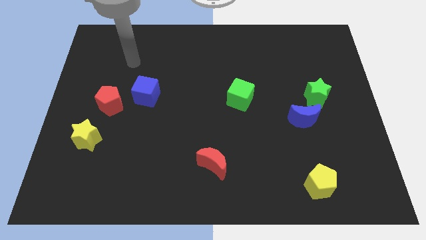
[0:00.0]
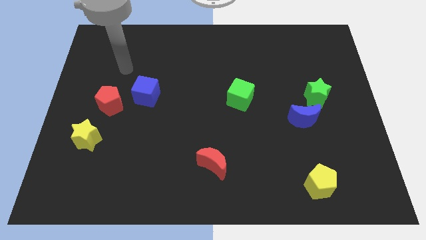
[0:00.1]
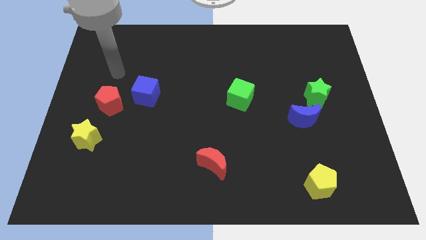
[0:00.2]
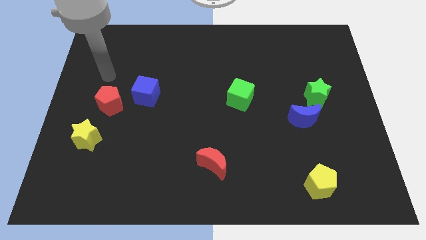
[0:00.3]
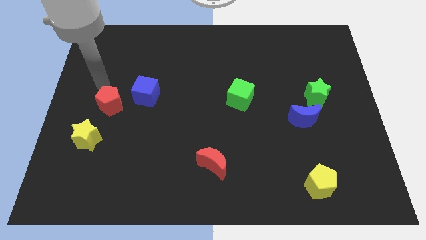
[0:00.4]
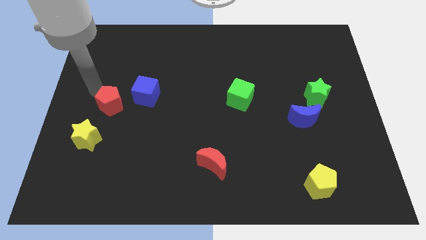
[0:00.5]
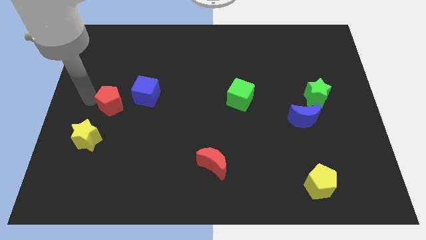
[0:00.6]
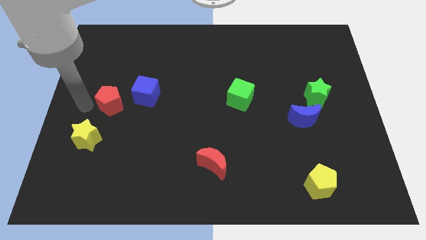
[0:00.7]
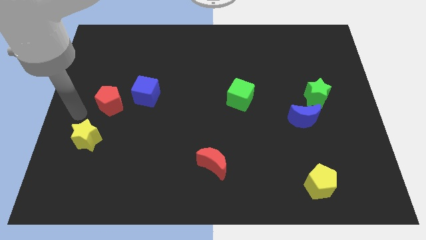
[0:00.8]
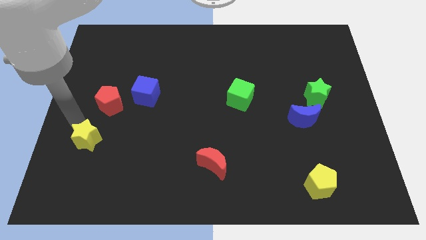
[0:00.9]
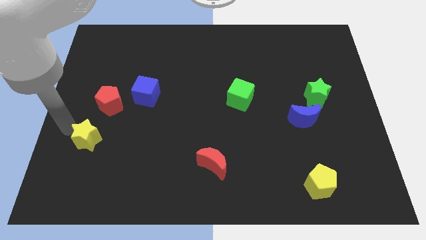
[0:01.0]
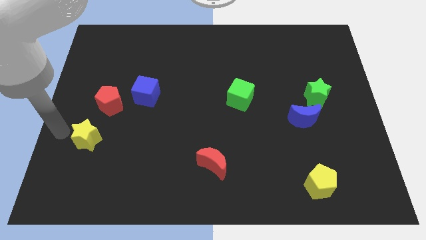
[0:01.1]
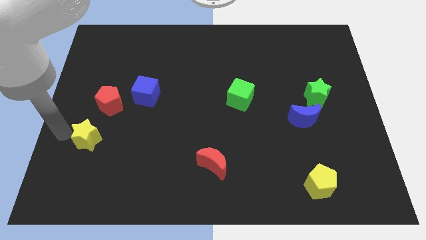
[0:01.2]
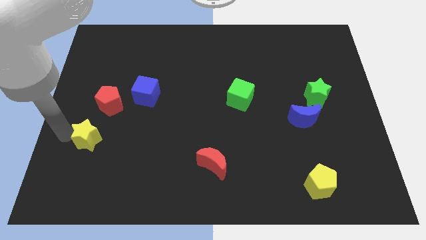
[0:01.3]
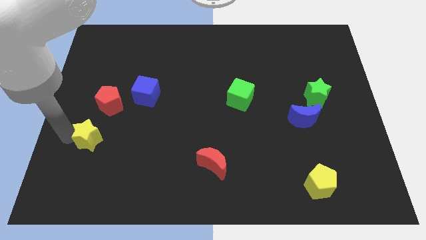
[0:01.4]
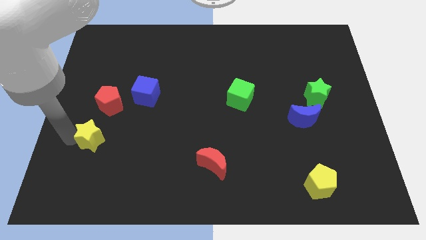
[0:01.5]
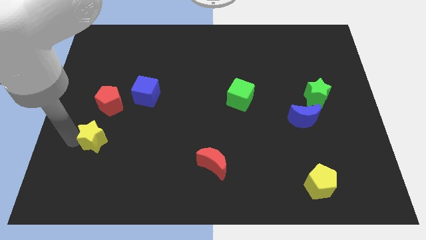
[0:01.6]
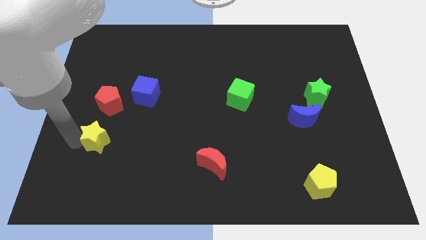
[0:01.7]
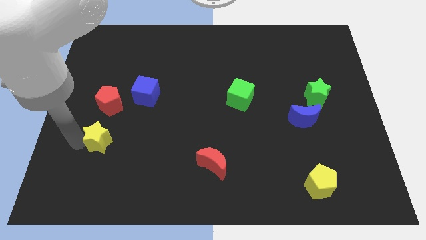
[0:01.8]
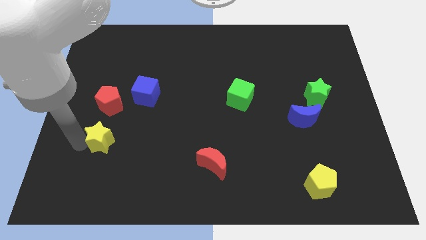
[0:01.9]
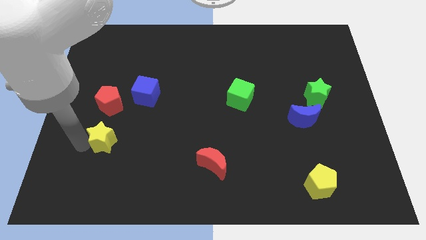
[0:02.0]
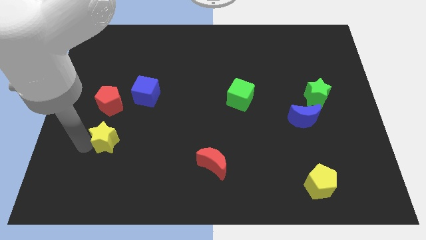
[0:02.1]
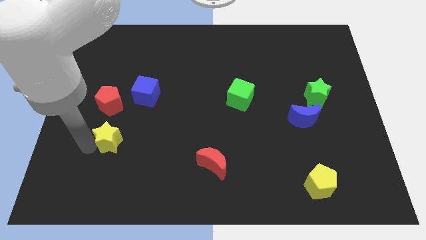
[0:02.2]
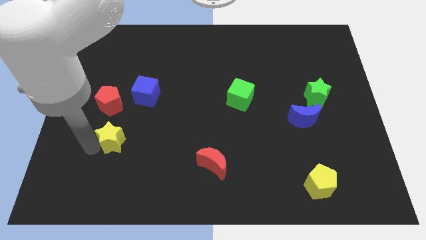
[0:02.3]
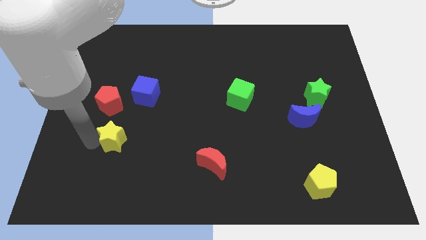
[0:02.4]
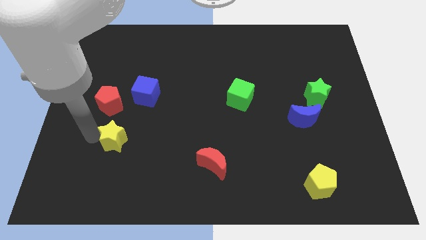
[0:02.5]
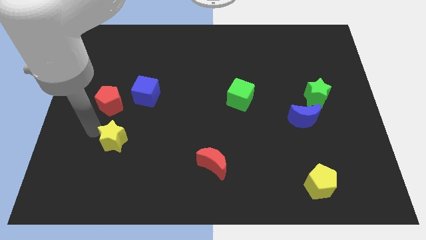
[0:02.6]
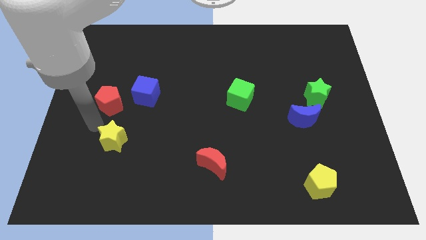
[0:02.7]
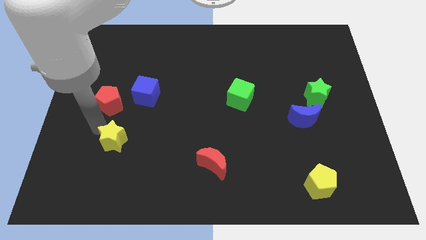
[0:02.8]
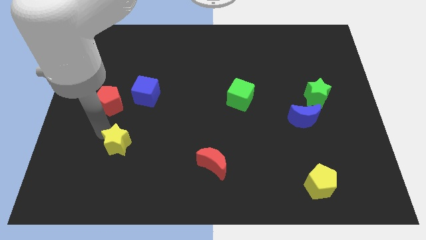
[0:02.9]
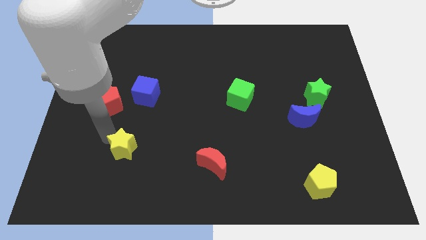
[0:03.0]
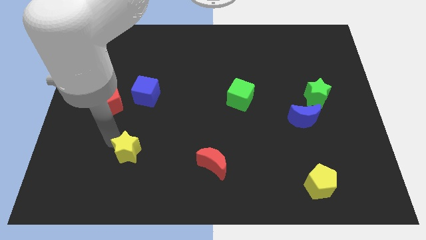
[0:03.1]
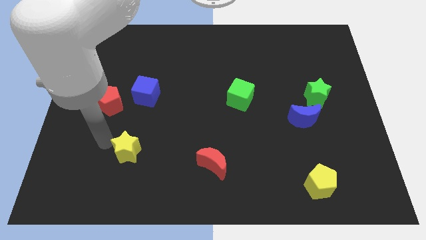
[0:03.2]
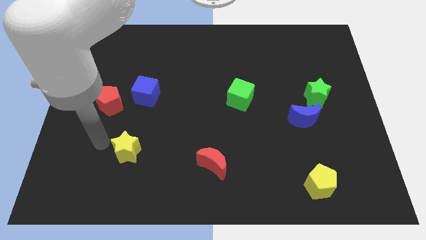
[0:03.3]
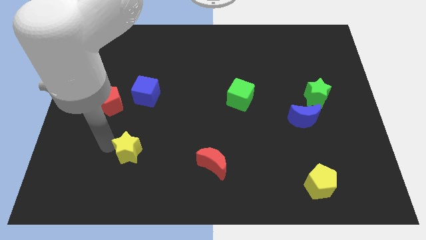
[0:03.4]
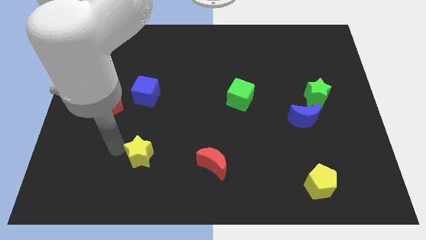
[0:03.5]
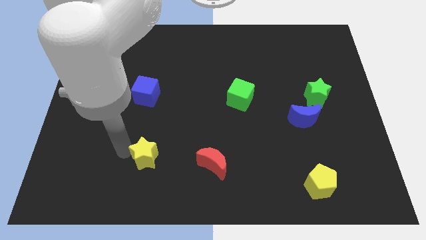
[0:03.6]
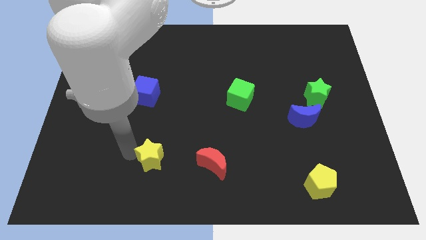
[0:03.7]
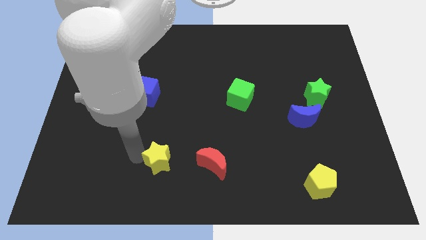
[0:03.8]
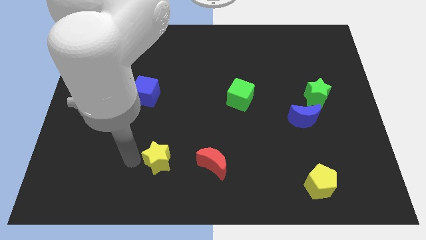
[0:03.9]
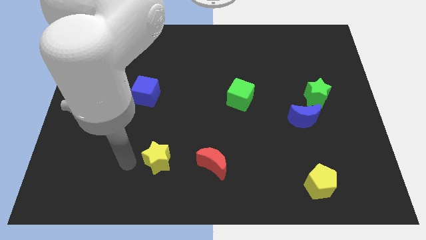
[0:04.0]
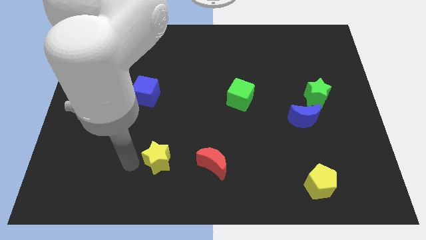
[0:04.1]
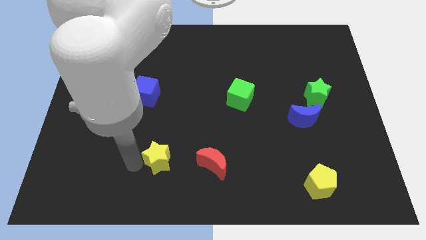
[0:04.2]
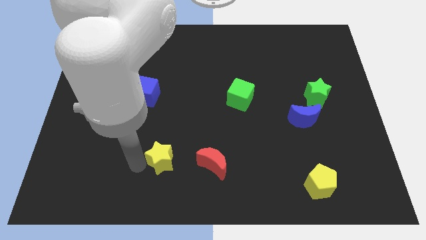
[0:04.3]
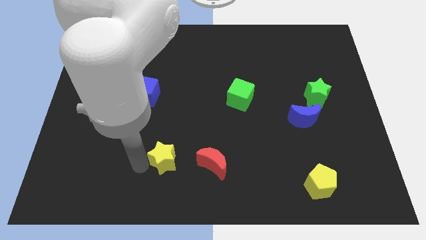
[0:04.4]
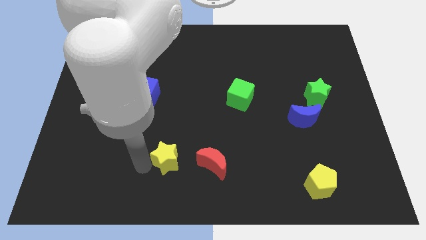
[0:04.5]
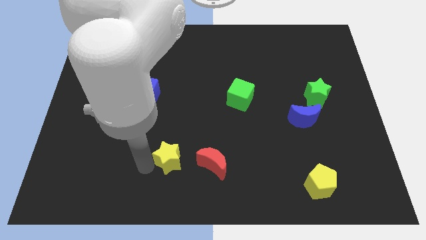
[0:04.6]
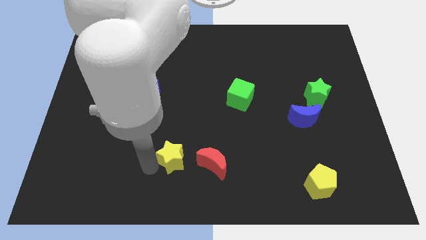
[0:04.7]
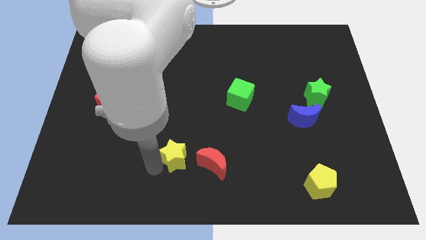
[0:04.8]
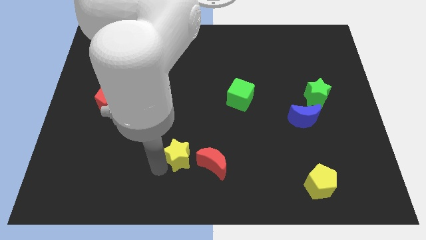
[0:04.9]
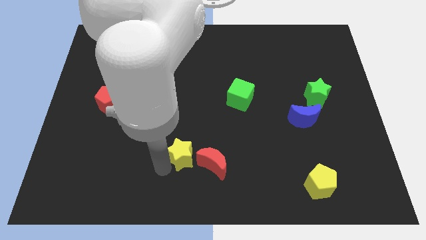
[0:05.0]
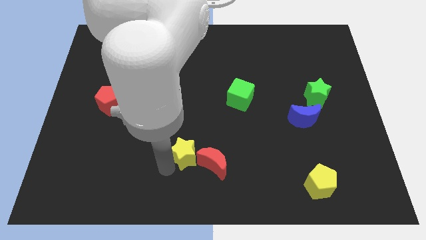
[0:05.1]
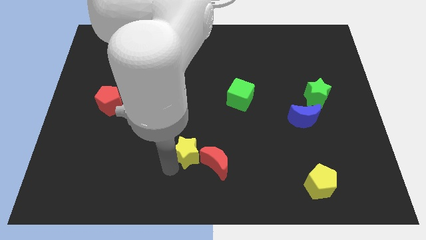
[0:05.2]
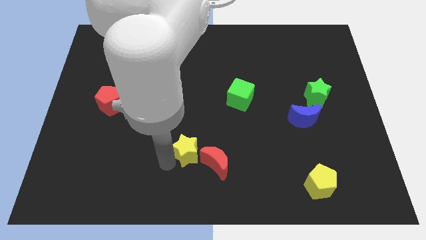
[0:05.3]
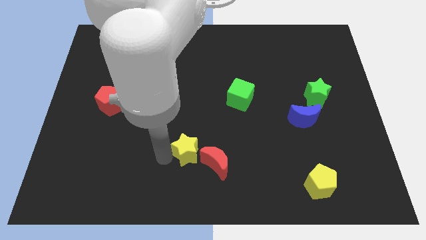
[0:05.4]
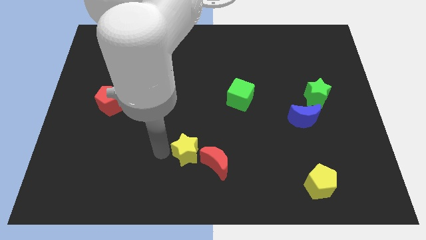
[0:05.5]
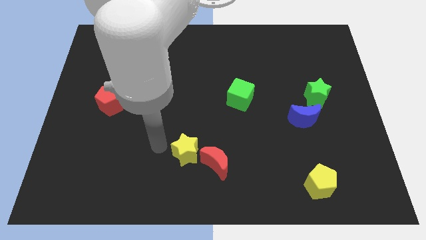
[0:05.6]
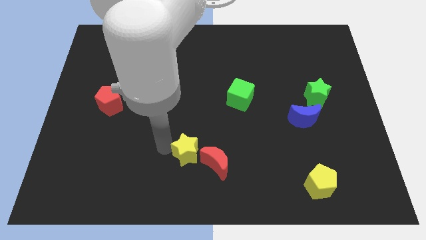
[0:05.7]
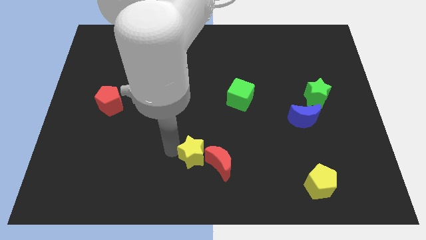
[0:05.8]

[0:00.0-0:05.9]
slide the yellow star towards the red moon

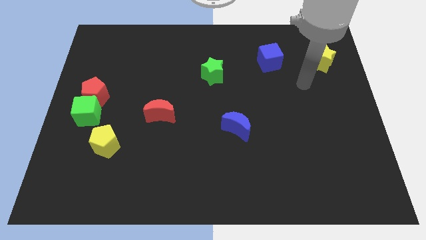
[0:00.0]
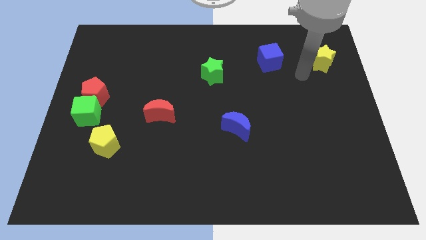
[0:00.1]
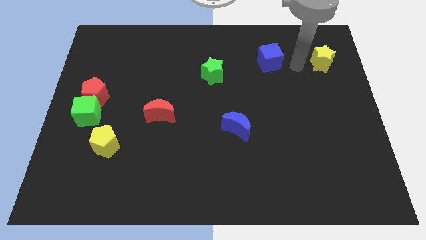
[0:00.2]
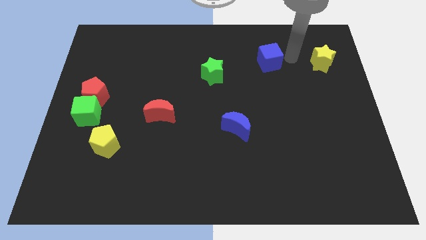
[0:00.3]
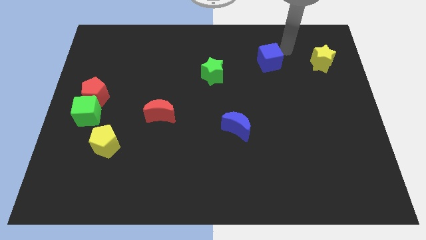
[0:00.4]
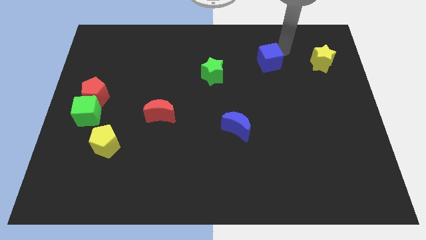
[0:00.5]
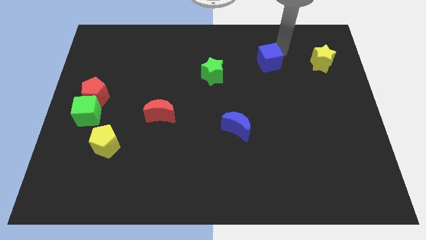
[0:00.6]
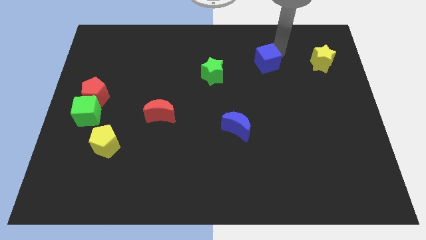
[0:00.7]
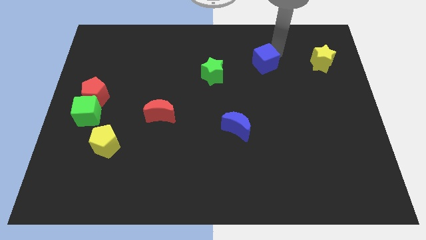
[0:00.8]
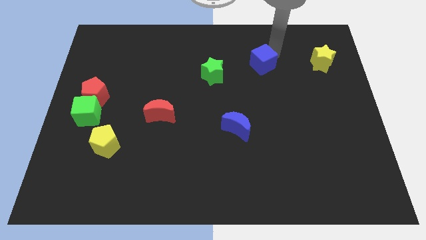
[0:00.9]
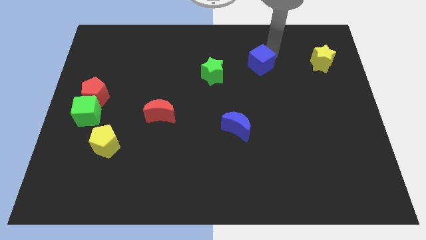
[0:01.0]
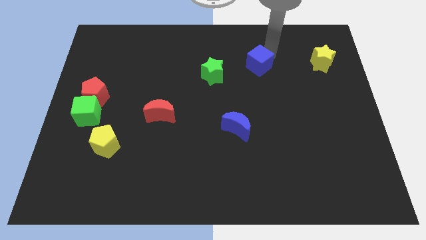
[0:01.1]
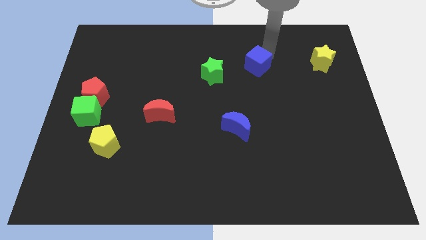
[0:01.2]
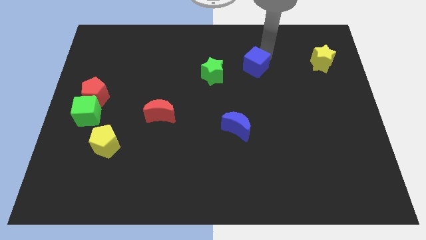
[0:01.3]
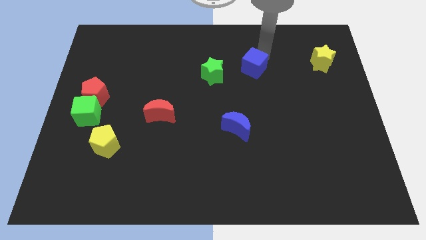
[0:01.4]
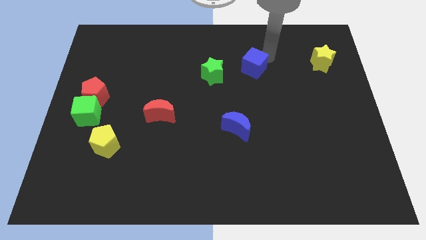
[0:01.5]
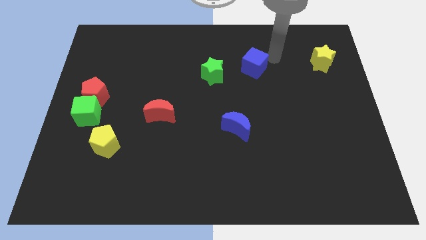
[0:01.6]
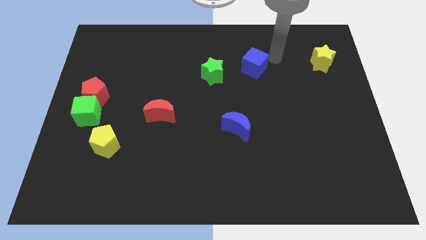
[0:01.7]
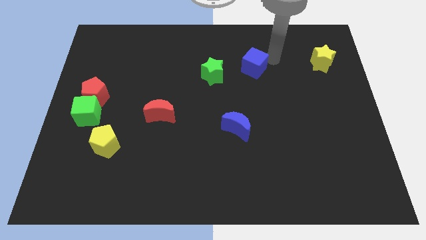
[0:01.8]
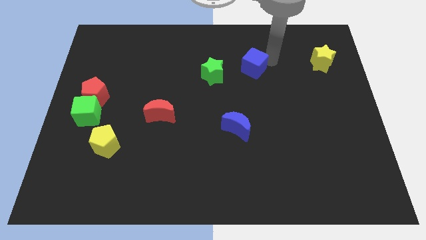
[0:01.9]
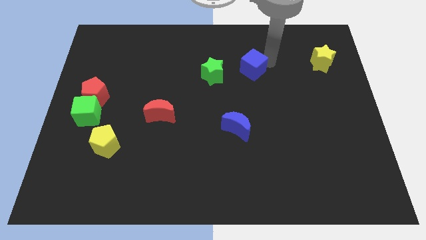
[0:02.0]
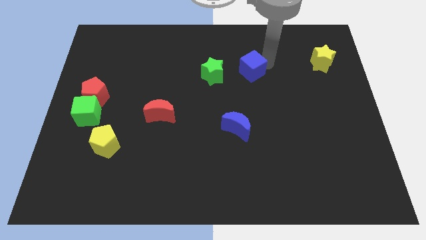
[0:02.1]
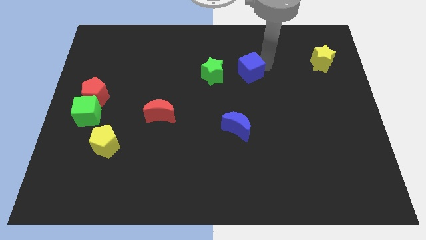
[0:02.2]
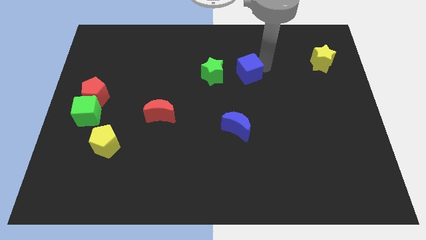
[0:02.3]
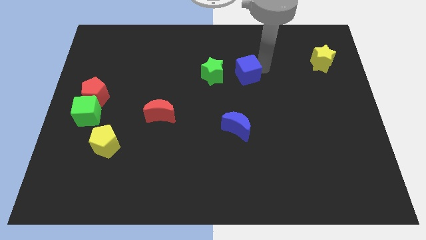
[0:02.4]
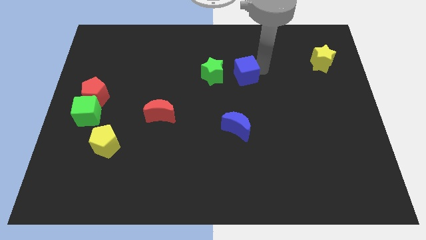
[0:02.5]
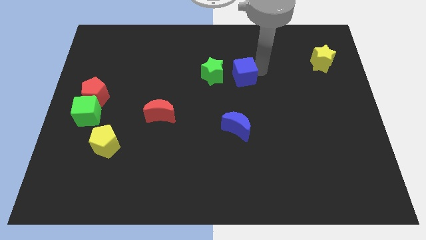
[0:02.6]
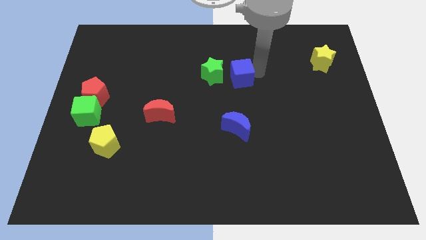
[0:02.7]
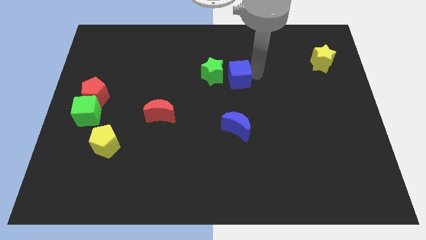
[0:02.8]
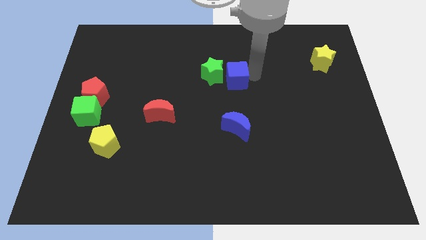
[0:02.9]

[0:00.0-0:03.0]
slide the blue cube to the green star
